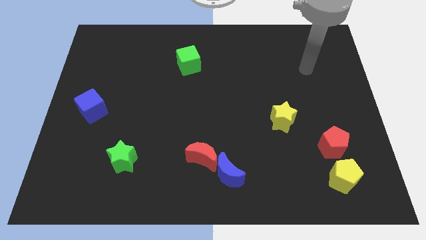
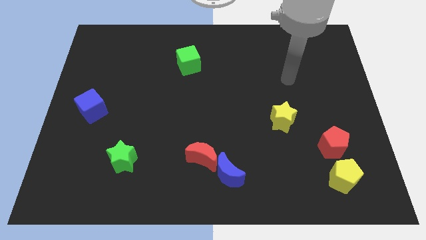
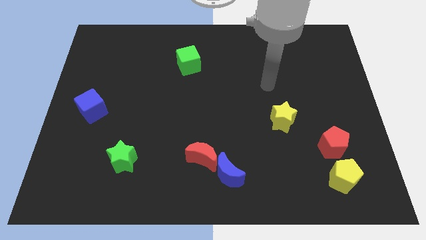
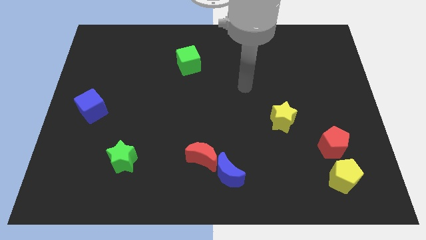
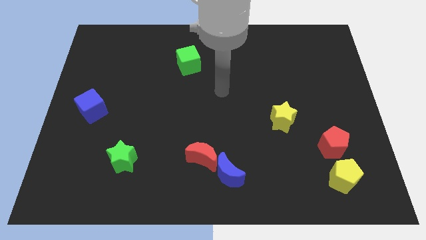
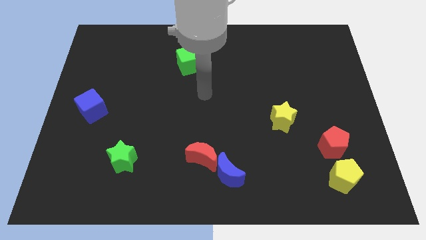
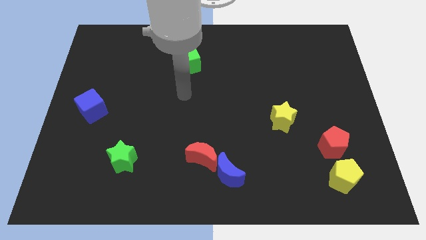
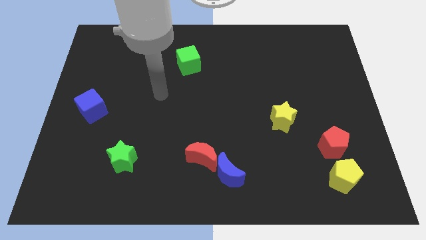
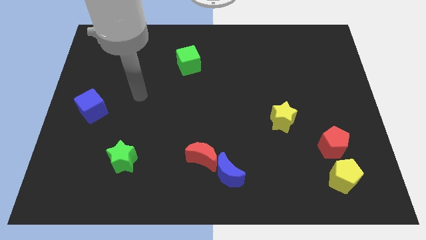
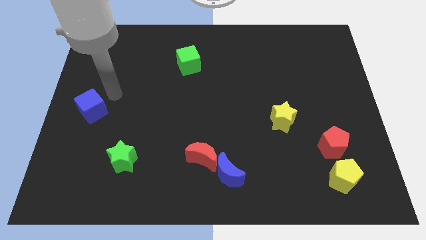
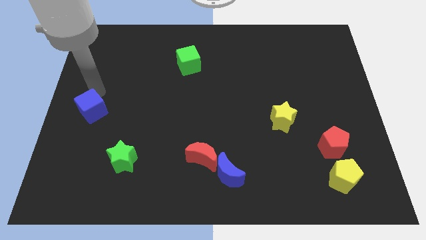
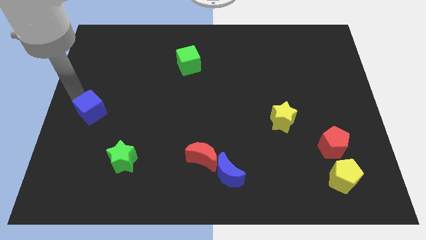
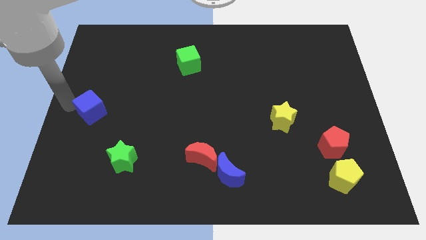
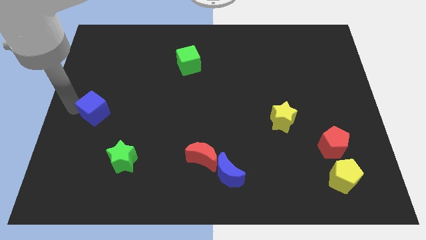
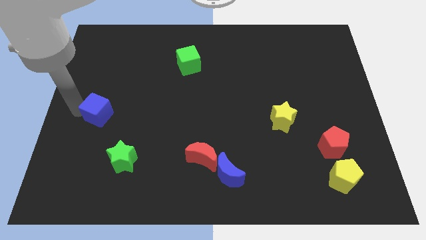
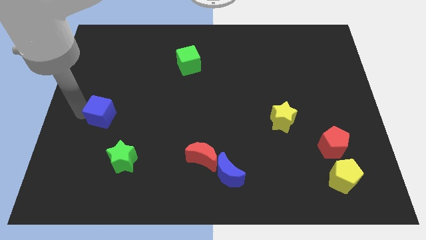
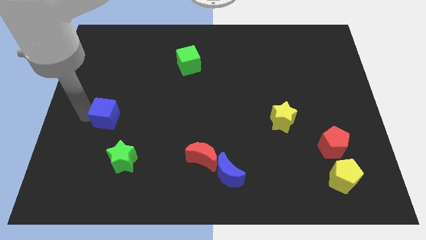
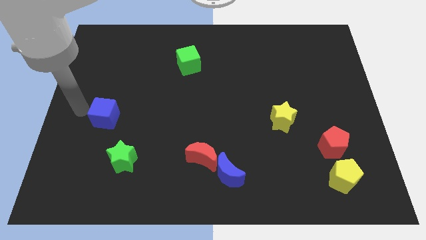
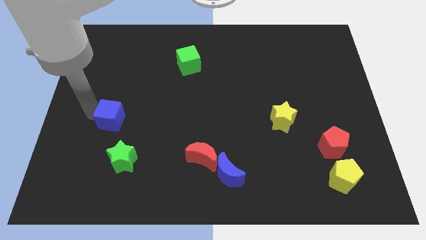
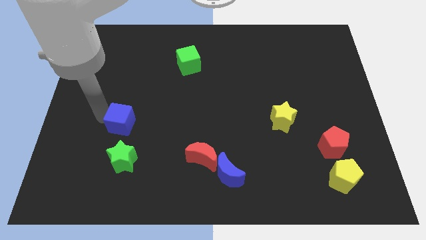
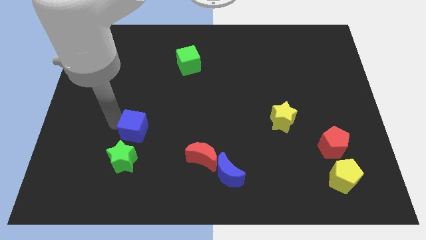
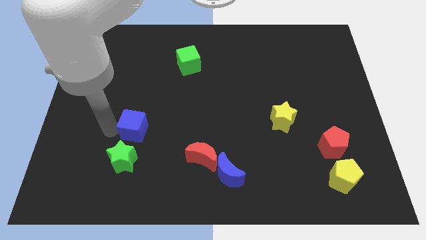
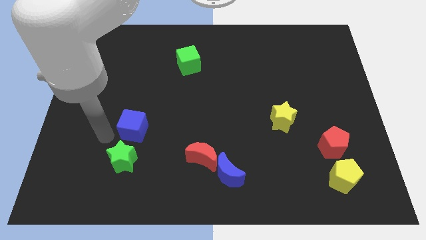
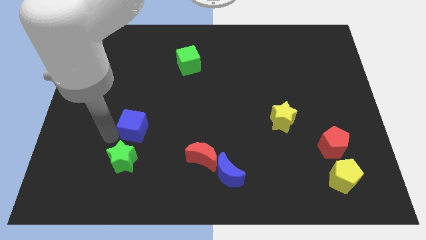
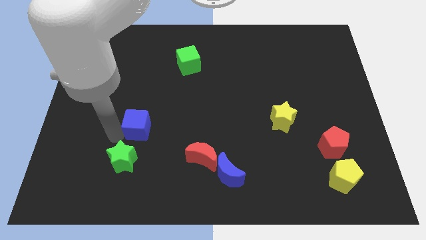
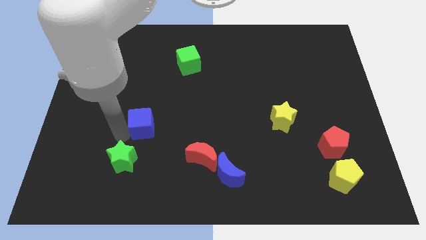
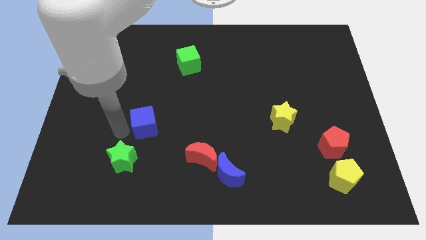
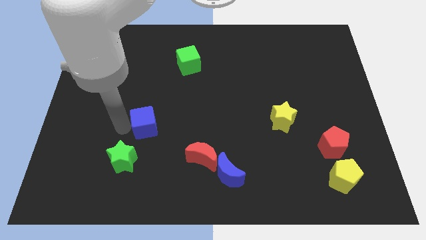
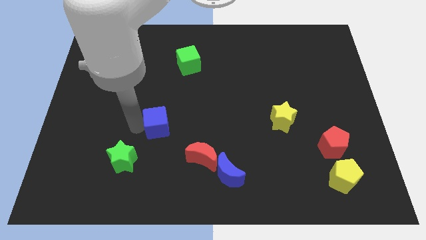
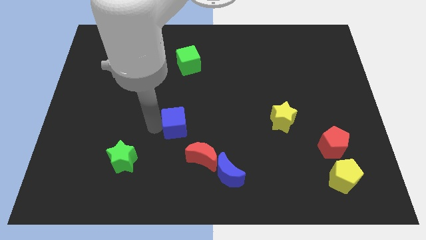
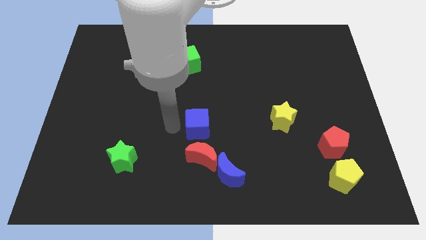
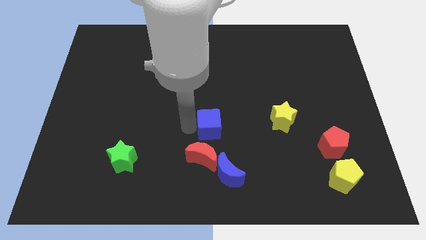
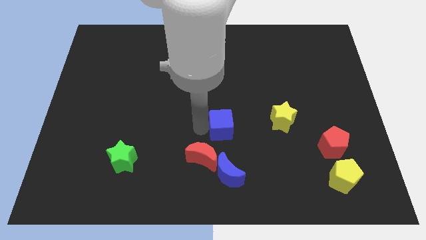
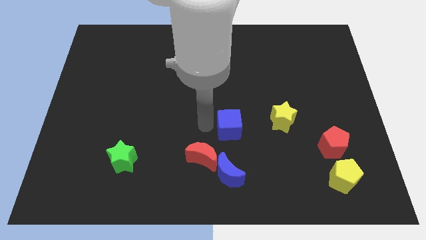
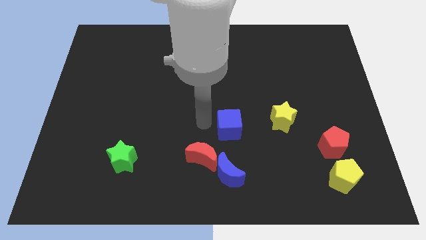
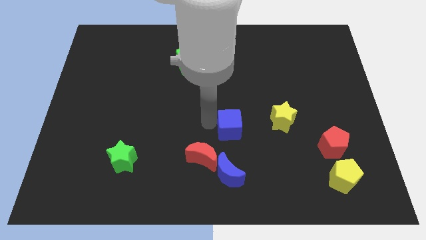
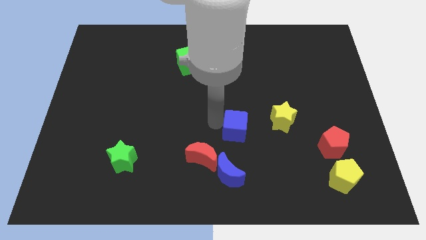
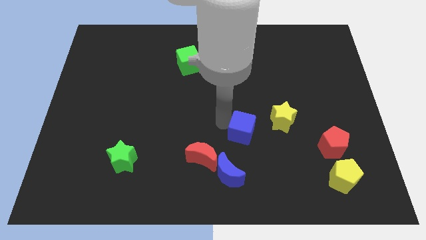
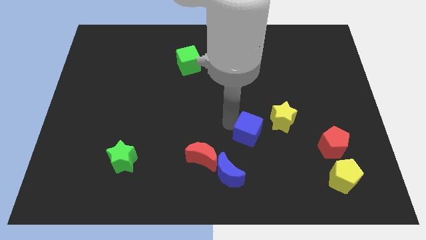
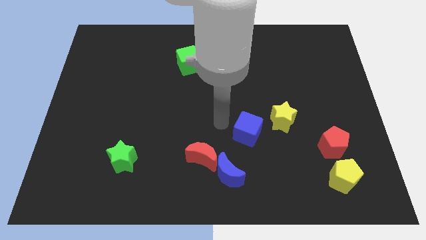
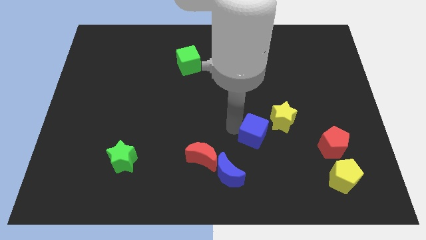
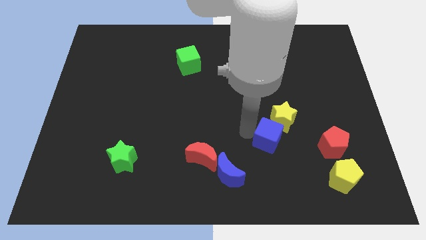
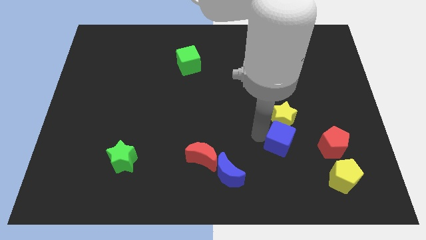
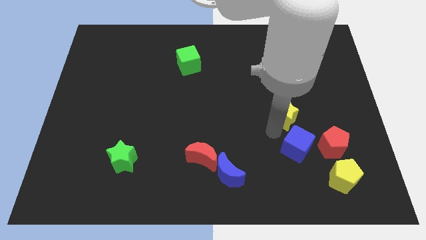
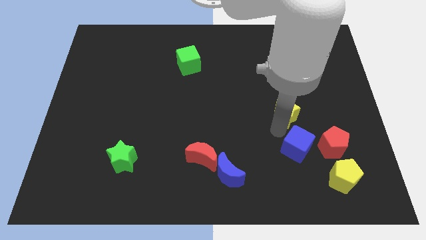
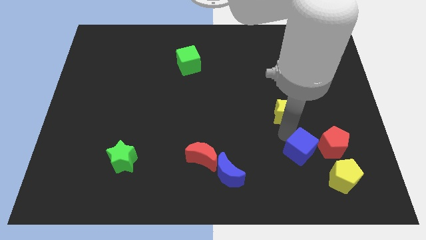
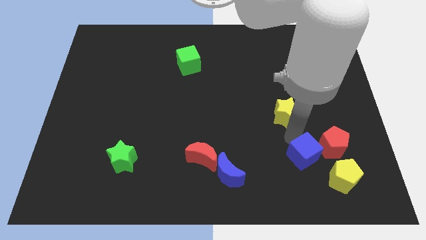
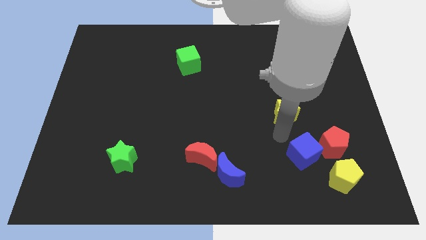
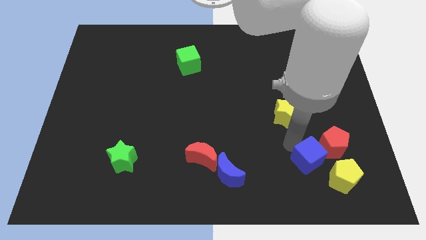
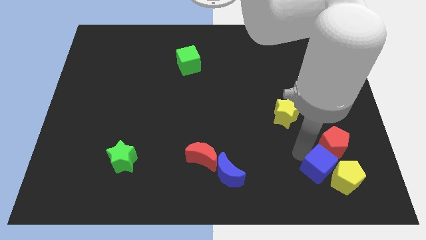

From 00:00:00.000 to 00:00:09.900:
slide the blue cube to the yellow pentagon

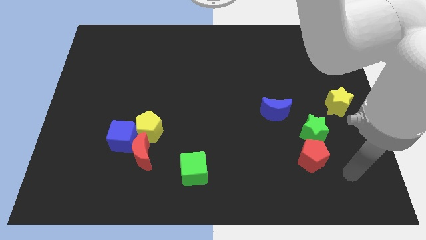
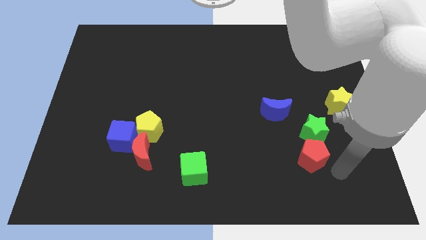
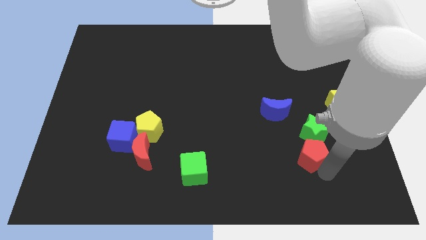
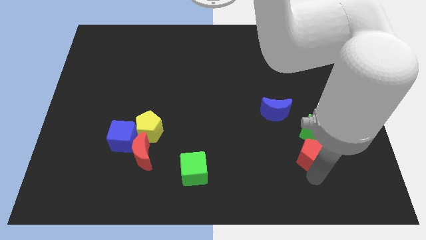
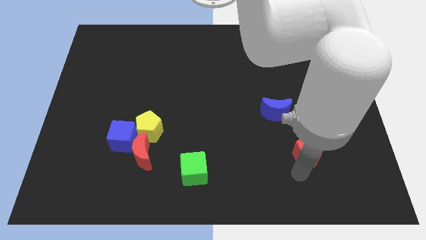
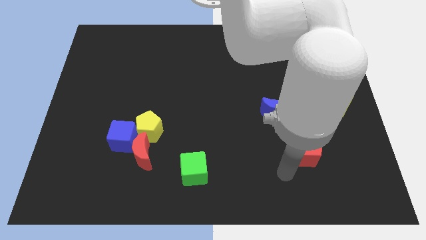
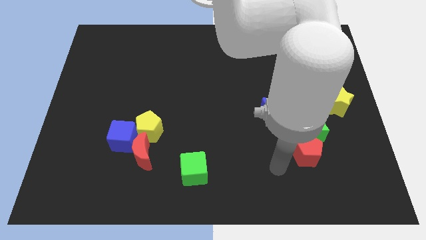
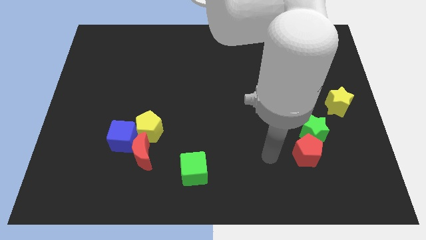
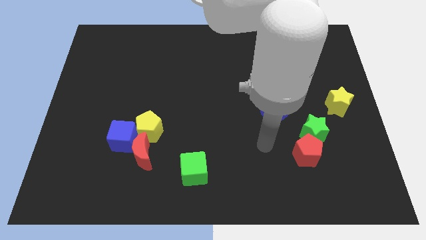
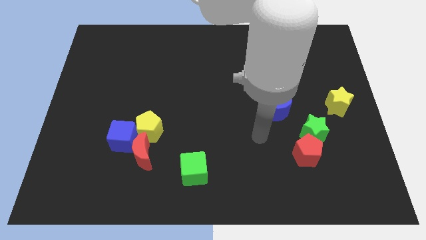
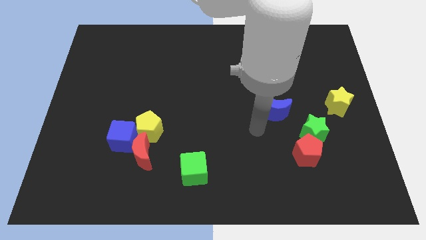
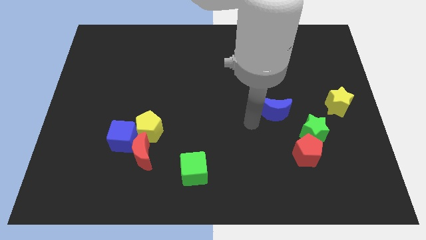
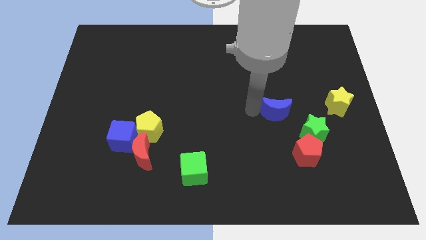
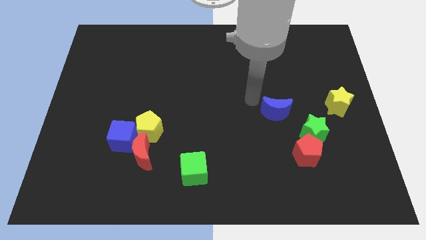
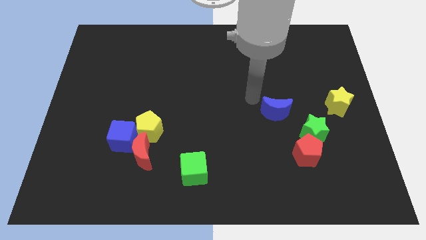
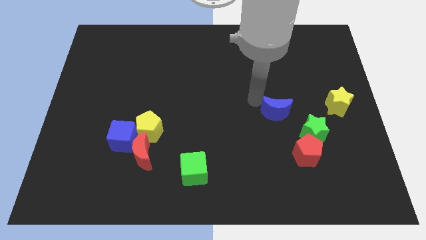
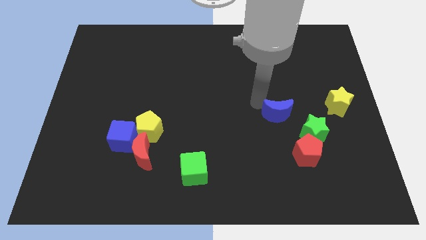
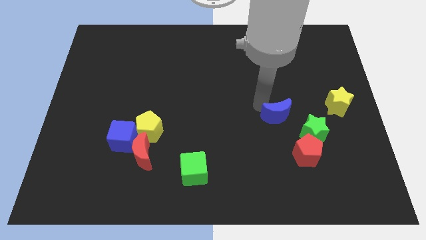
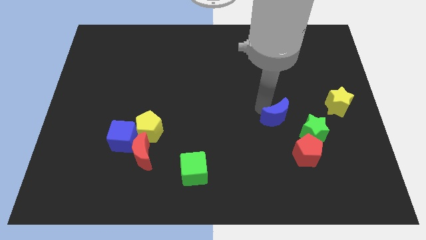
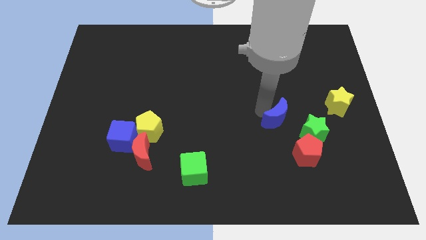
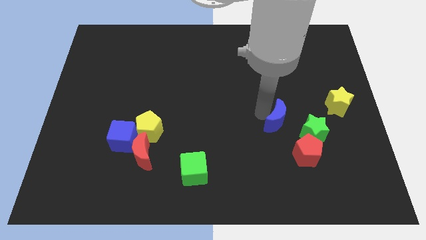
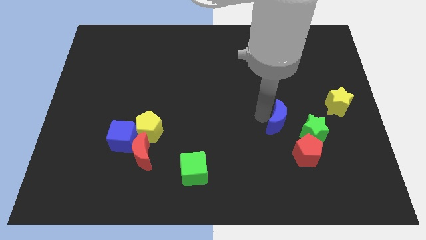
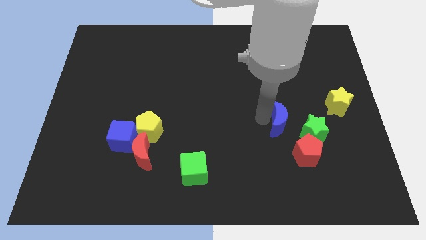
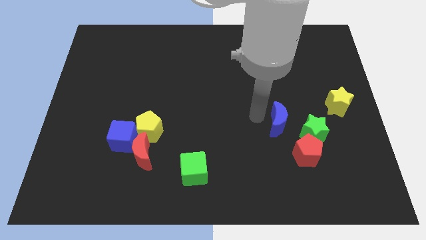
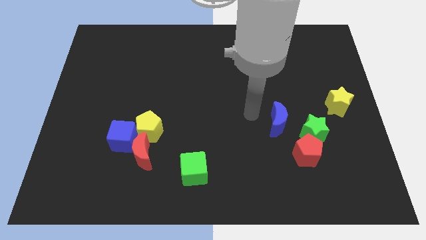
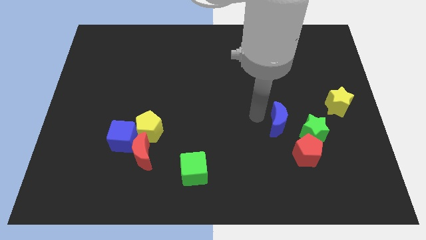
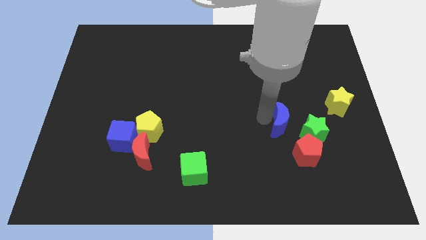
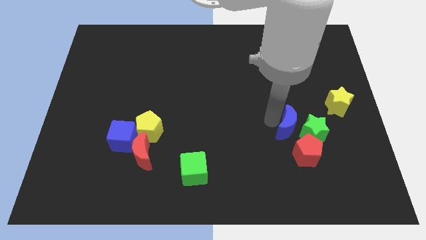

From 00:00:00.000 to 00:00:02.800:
push the blue moon towards the green star
